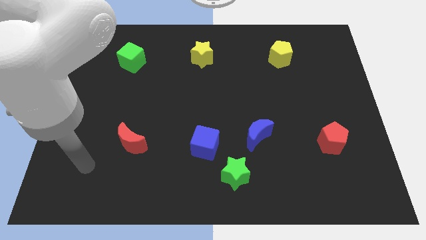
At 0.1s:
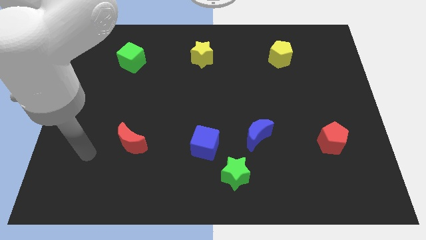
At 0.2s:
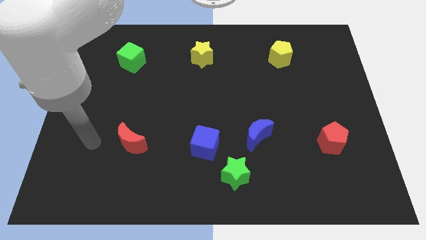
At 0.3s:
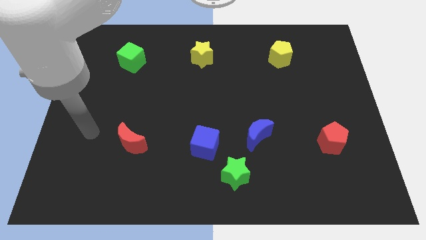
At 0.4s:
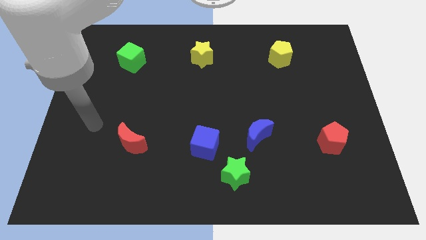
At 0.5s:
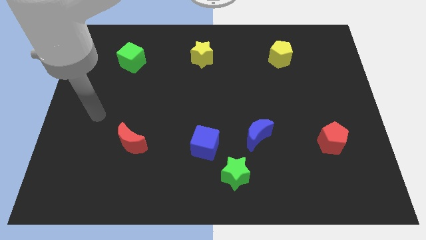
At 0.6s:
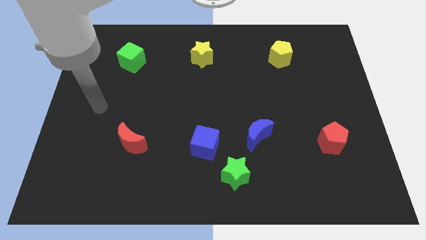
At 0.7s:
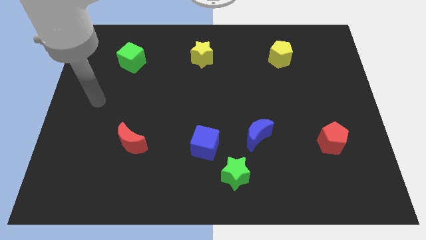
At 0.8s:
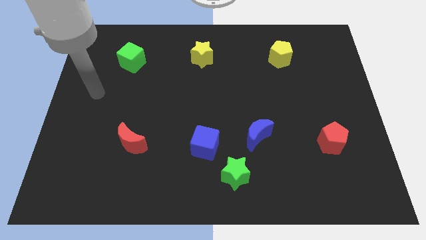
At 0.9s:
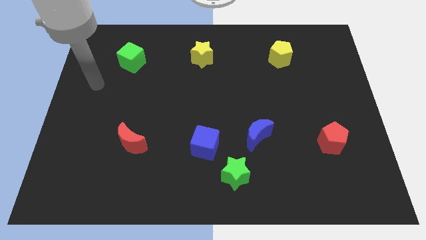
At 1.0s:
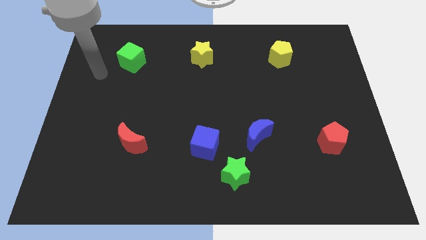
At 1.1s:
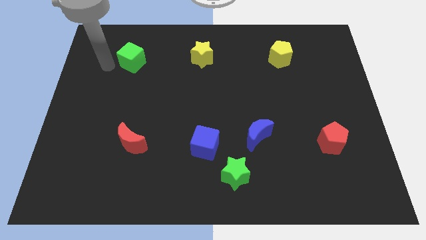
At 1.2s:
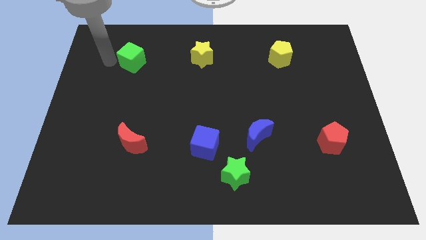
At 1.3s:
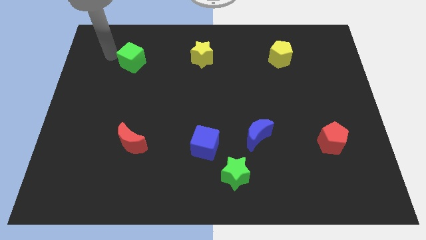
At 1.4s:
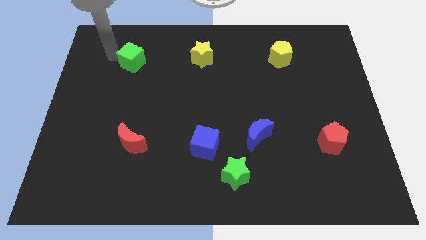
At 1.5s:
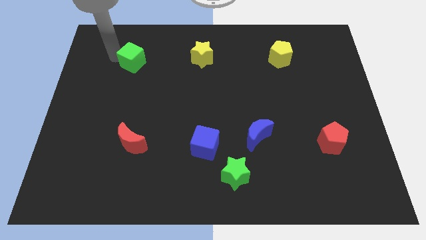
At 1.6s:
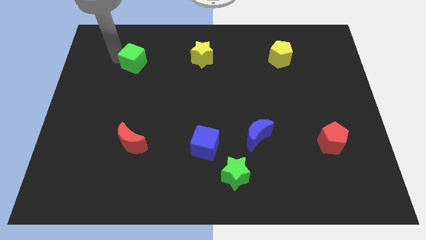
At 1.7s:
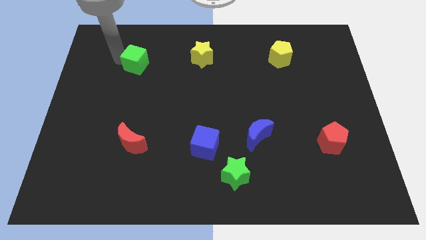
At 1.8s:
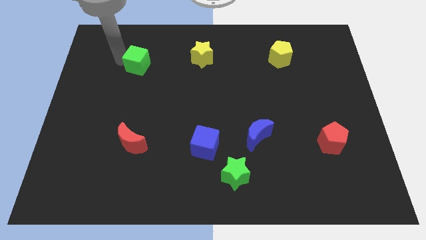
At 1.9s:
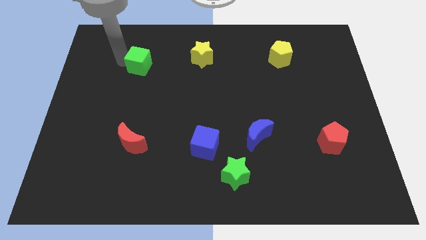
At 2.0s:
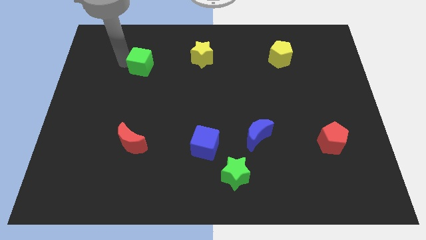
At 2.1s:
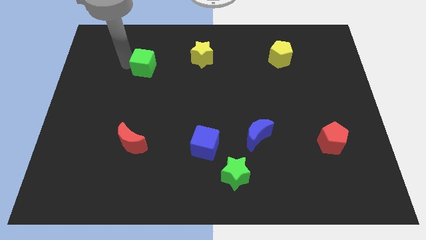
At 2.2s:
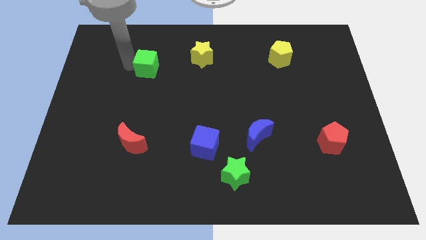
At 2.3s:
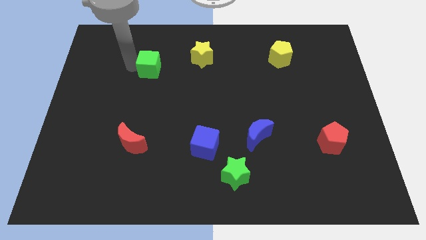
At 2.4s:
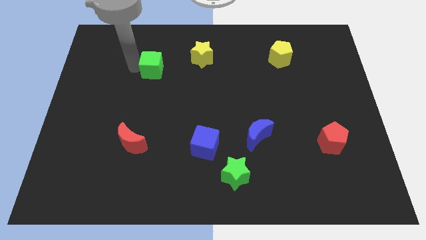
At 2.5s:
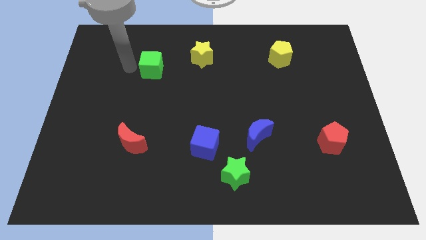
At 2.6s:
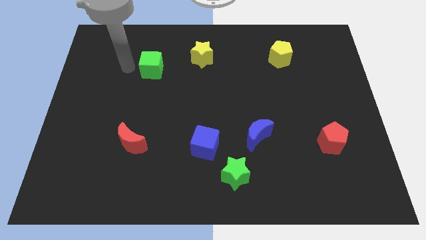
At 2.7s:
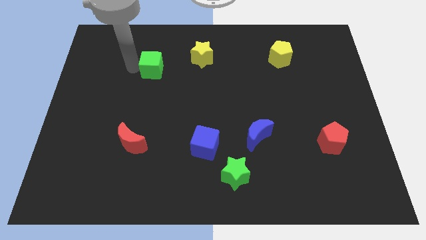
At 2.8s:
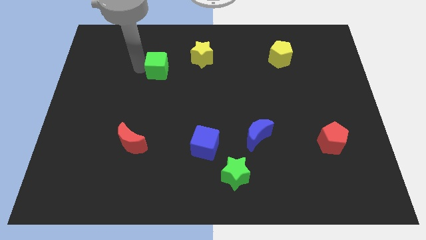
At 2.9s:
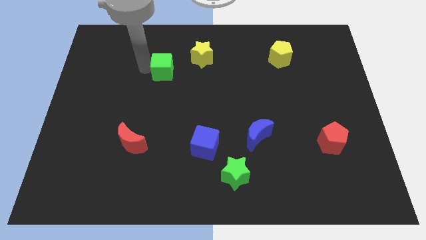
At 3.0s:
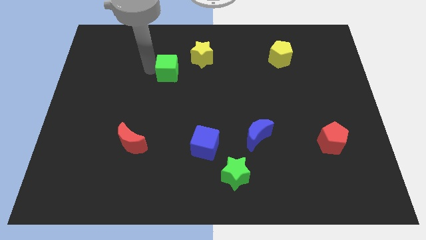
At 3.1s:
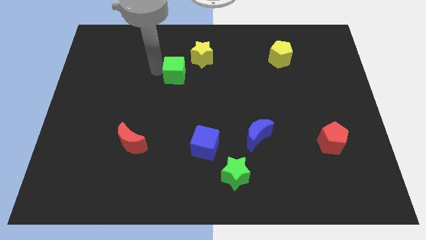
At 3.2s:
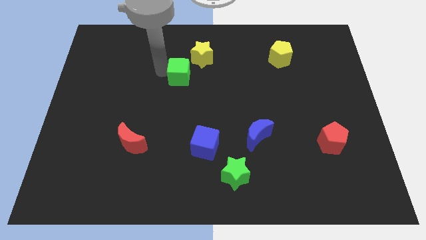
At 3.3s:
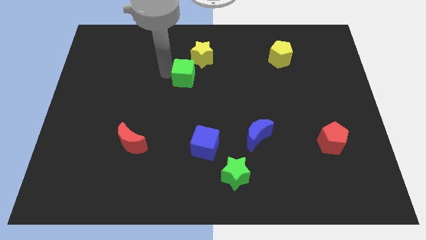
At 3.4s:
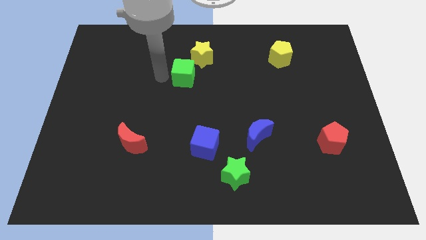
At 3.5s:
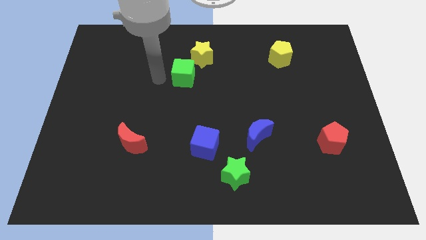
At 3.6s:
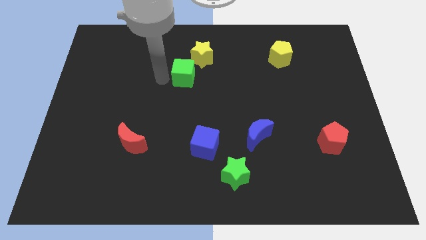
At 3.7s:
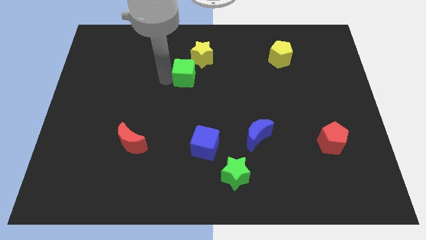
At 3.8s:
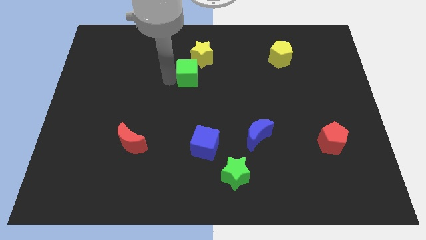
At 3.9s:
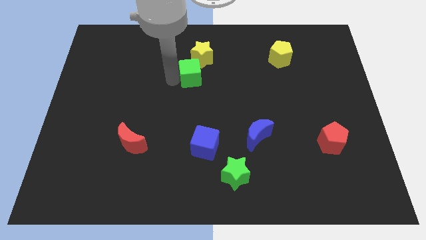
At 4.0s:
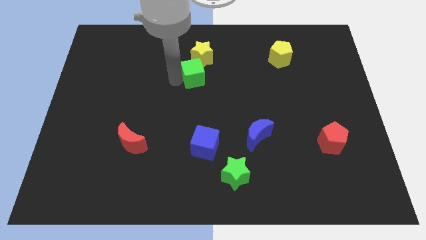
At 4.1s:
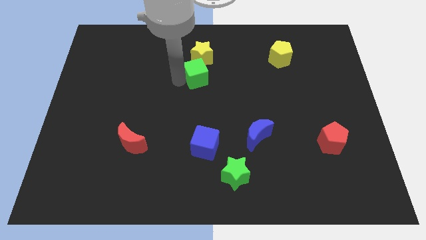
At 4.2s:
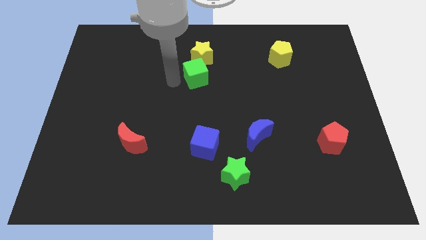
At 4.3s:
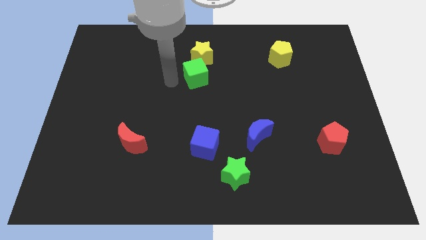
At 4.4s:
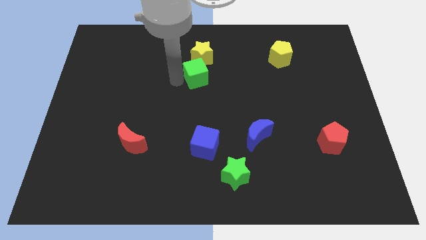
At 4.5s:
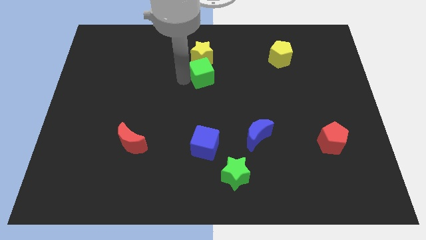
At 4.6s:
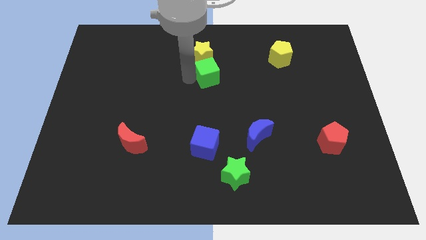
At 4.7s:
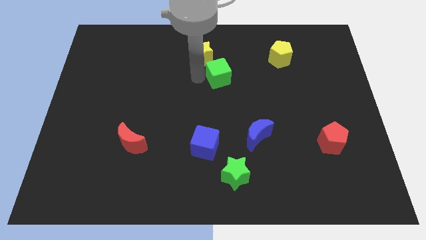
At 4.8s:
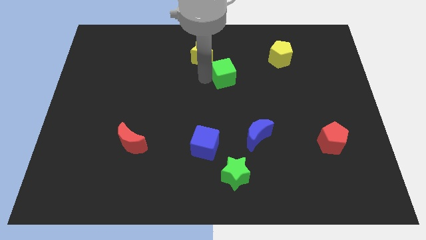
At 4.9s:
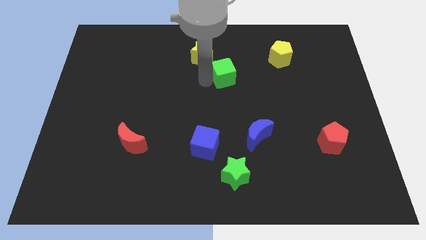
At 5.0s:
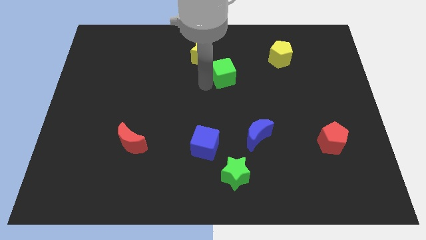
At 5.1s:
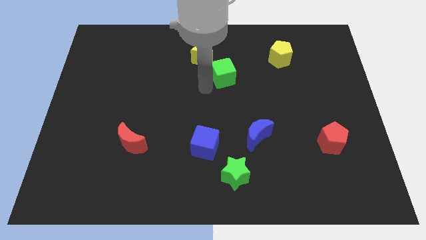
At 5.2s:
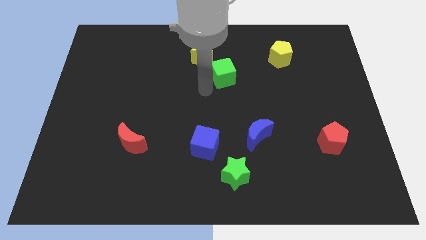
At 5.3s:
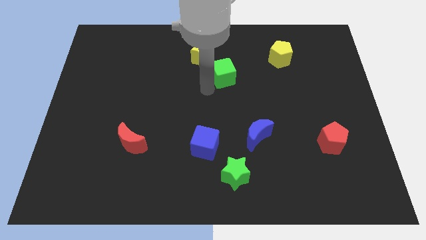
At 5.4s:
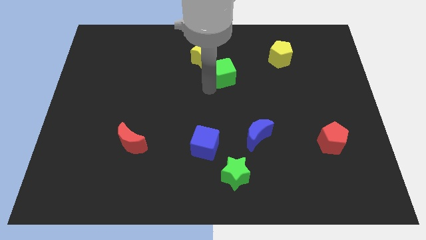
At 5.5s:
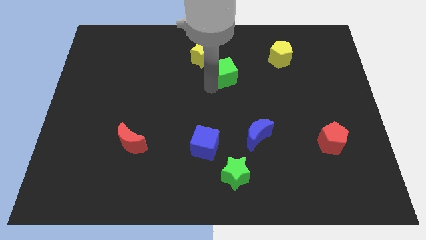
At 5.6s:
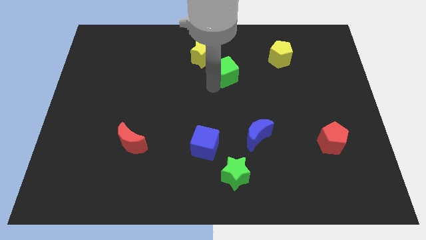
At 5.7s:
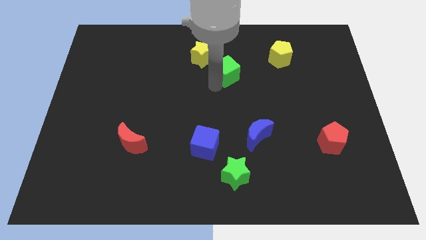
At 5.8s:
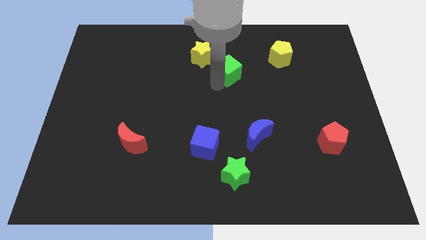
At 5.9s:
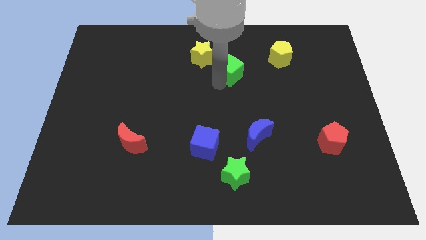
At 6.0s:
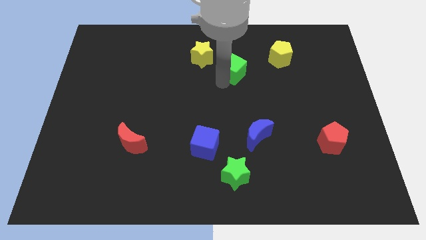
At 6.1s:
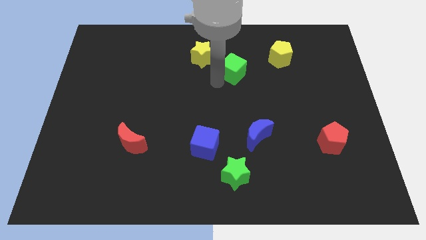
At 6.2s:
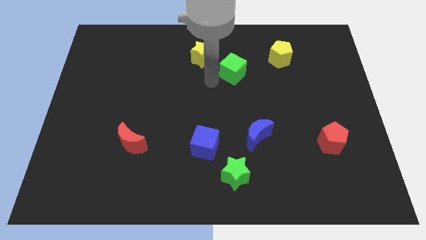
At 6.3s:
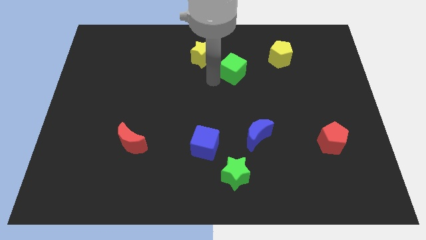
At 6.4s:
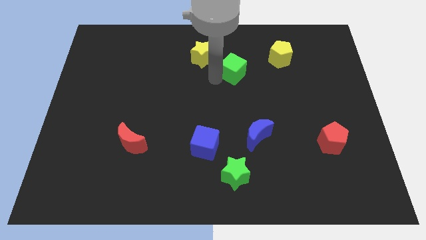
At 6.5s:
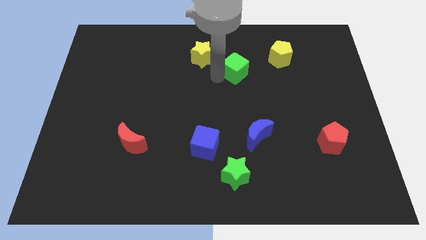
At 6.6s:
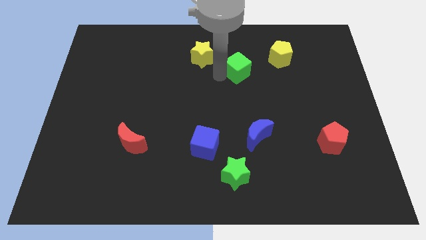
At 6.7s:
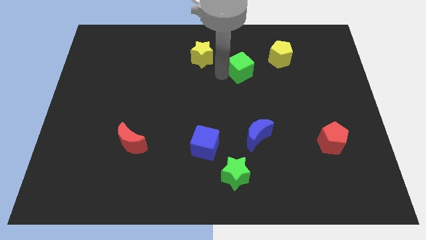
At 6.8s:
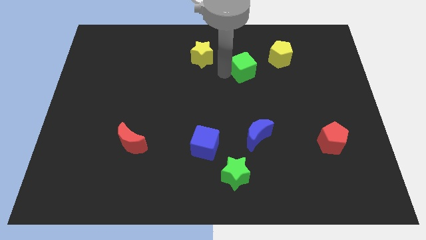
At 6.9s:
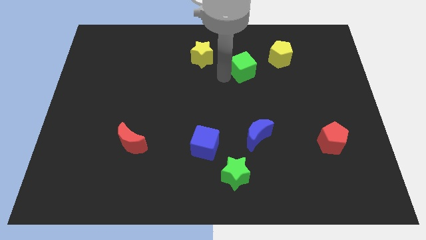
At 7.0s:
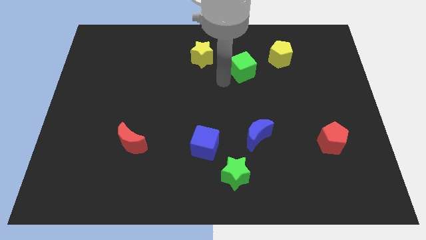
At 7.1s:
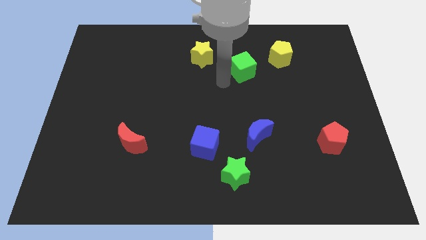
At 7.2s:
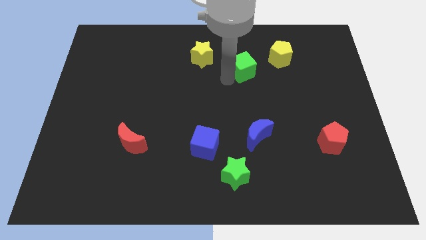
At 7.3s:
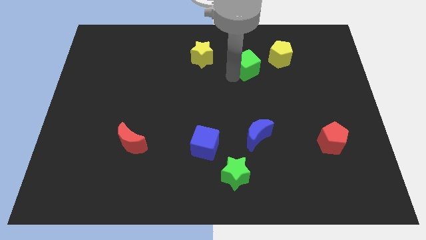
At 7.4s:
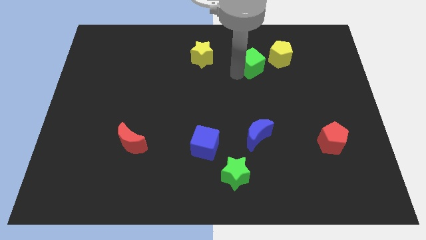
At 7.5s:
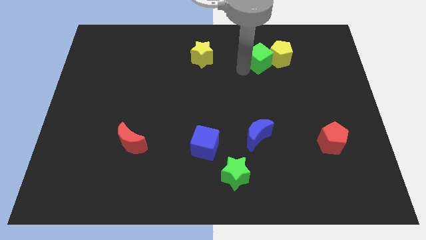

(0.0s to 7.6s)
put the green cube to the yellow pentagon
